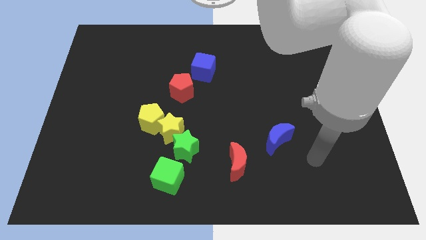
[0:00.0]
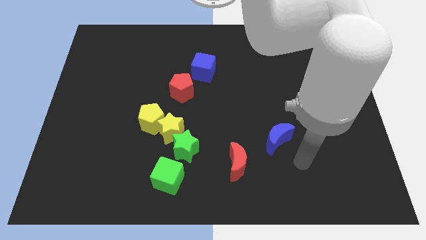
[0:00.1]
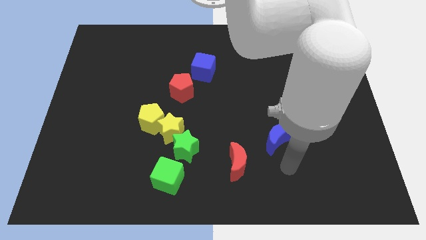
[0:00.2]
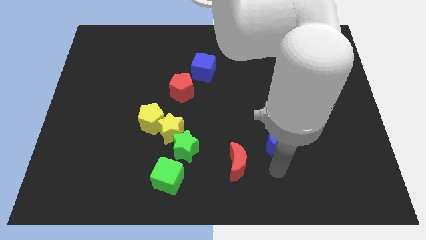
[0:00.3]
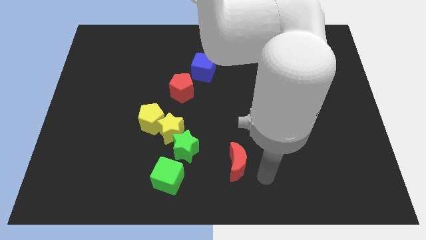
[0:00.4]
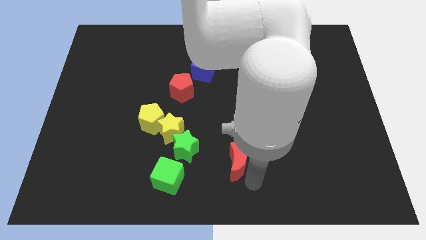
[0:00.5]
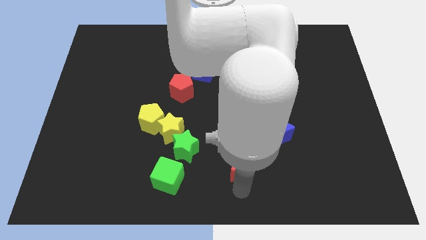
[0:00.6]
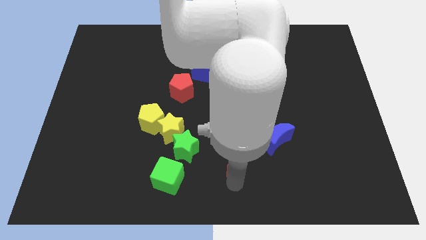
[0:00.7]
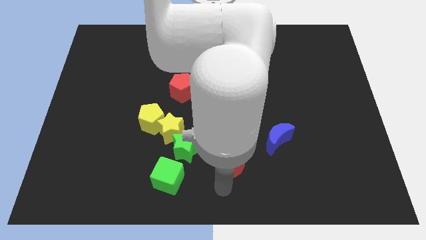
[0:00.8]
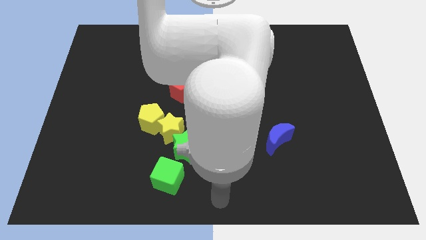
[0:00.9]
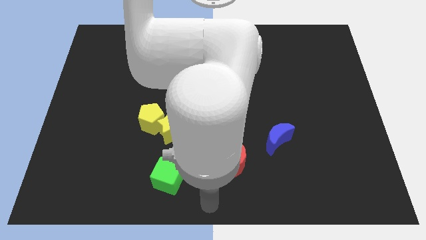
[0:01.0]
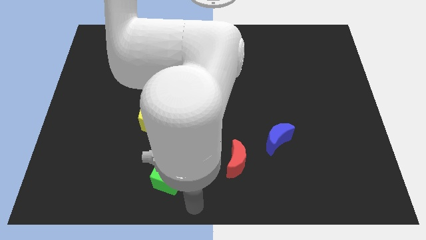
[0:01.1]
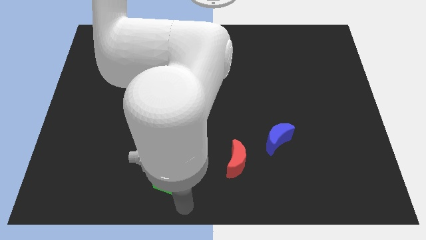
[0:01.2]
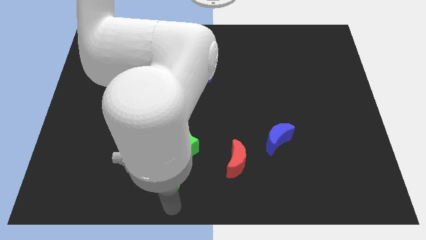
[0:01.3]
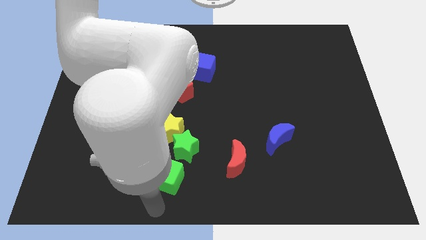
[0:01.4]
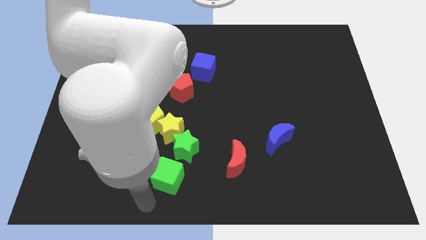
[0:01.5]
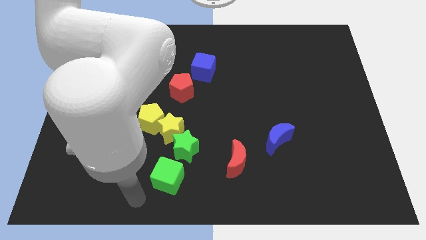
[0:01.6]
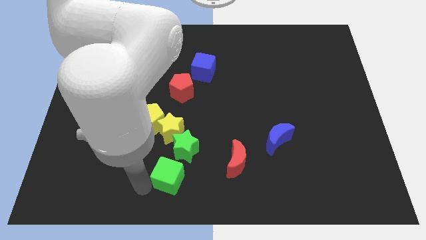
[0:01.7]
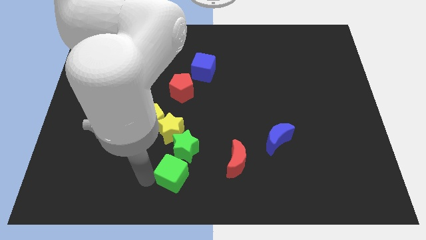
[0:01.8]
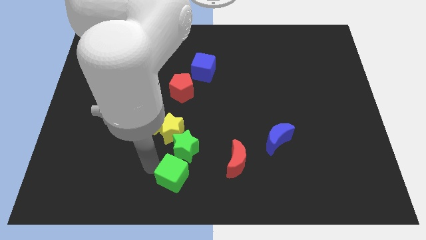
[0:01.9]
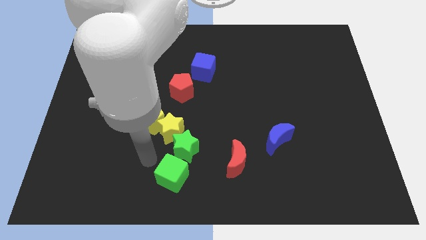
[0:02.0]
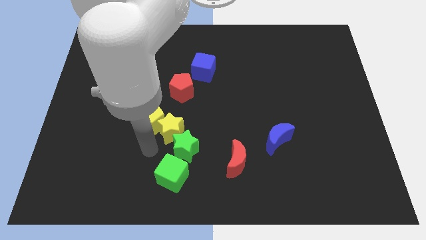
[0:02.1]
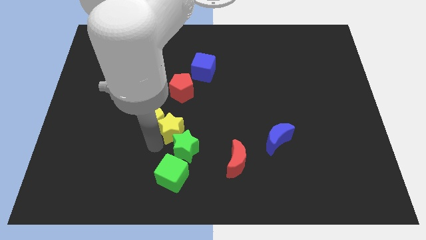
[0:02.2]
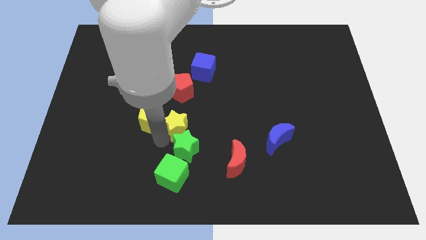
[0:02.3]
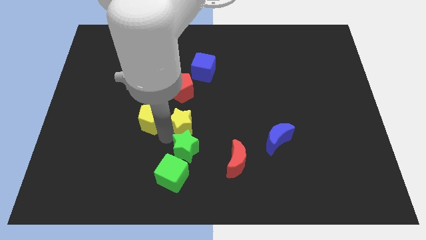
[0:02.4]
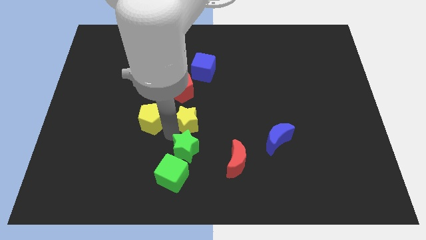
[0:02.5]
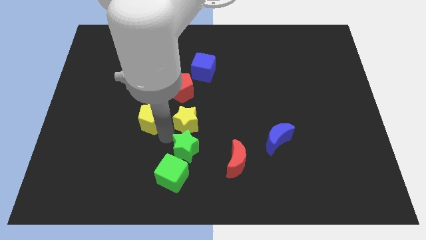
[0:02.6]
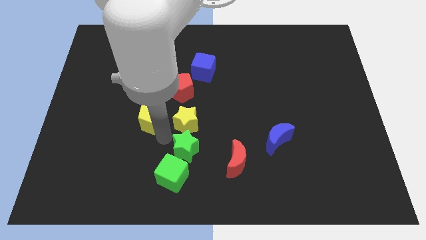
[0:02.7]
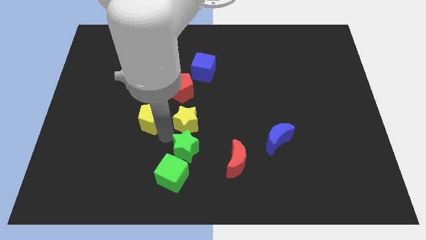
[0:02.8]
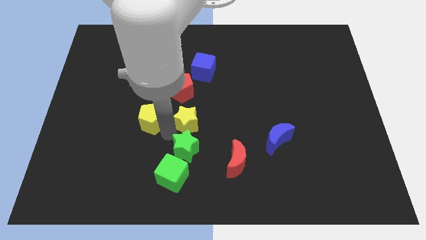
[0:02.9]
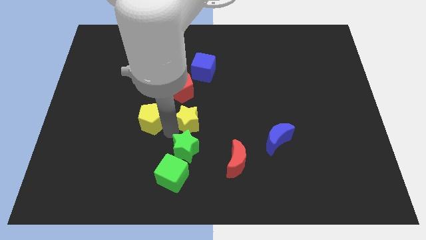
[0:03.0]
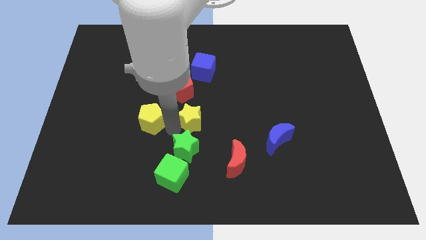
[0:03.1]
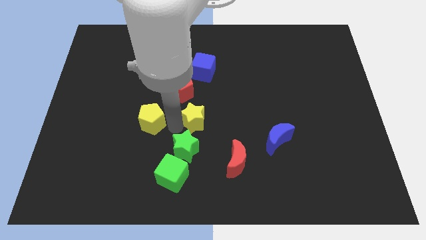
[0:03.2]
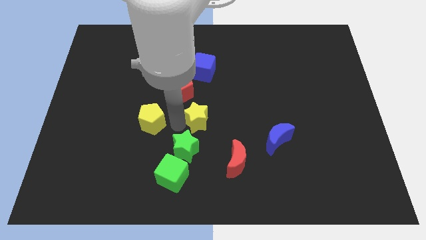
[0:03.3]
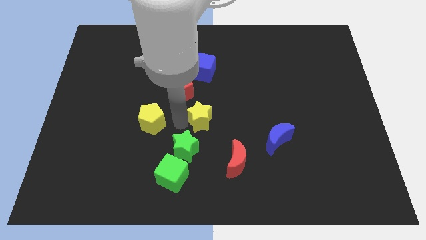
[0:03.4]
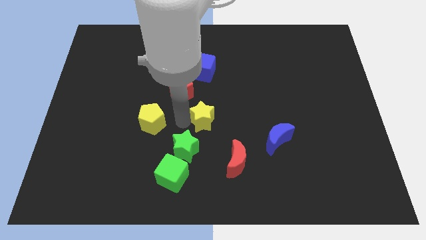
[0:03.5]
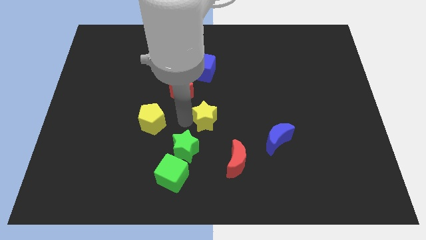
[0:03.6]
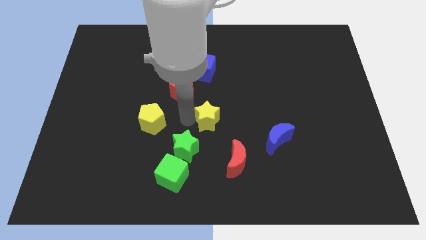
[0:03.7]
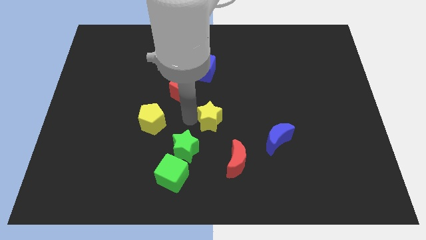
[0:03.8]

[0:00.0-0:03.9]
pull the yellow star apart from the green star and yellow pentagon

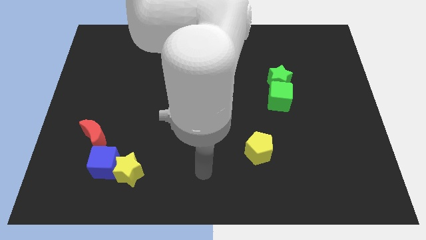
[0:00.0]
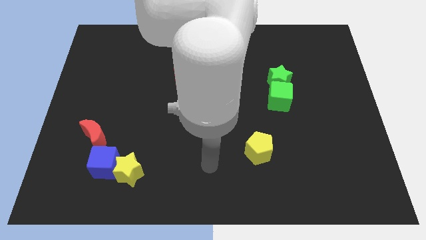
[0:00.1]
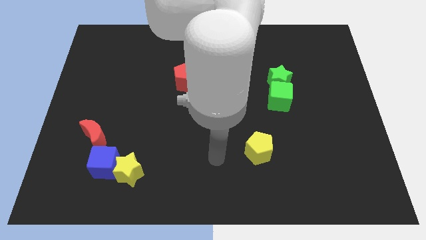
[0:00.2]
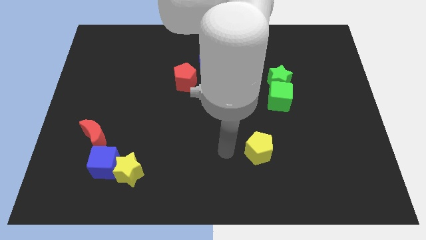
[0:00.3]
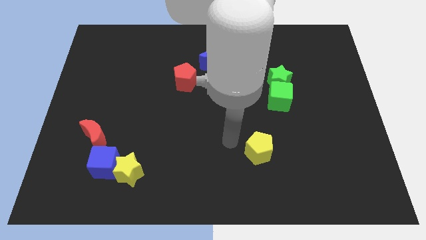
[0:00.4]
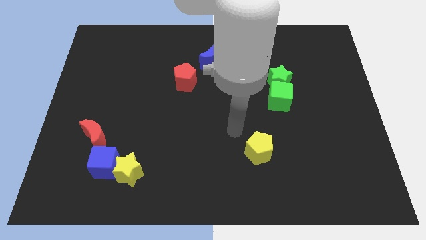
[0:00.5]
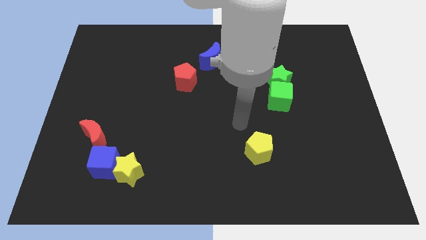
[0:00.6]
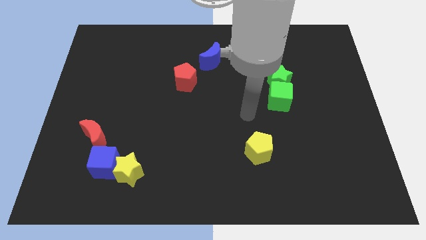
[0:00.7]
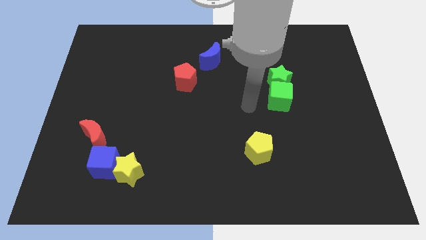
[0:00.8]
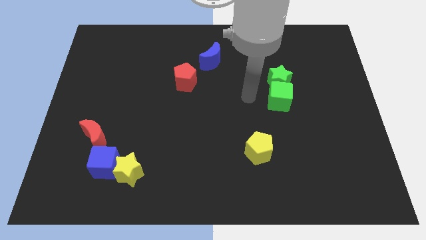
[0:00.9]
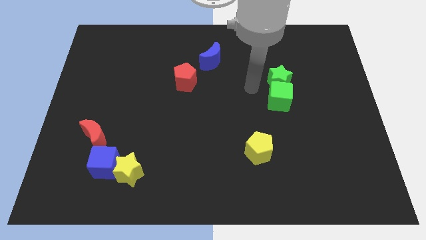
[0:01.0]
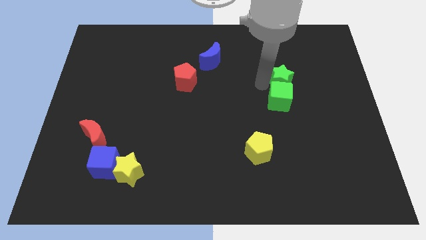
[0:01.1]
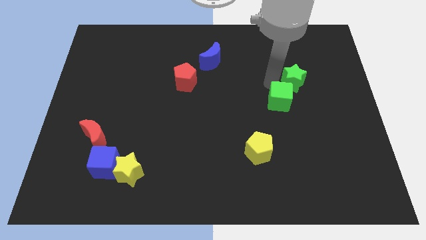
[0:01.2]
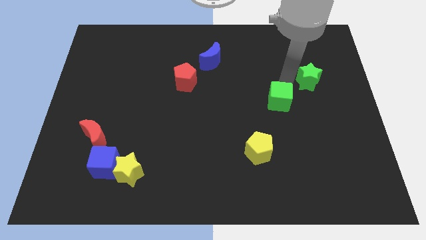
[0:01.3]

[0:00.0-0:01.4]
move the green cube away from the green star

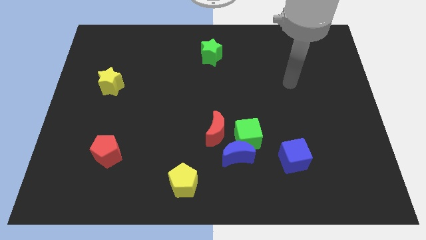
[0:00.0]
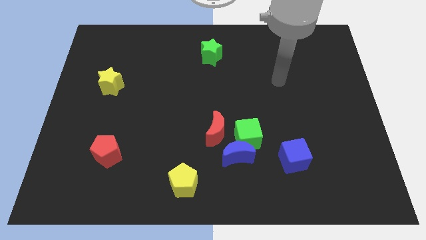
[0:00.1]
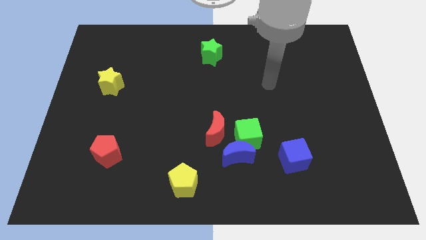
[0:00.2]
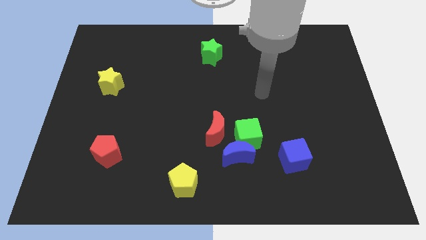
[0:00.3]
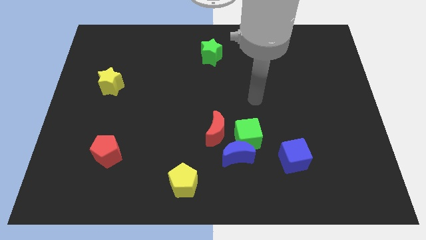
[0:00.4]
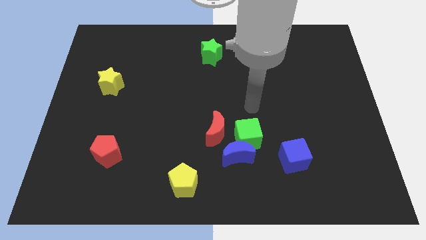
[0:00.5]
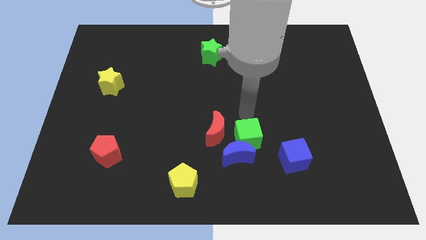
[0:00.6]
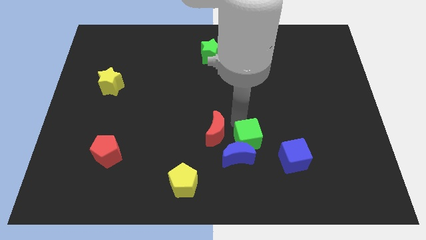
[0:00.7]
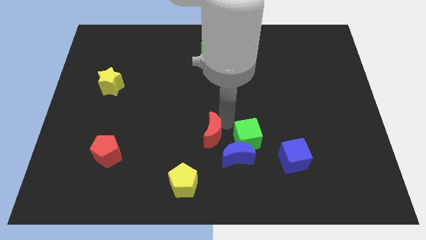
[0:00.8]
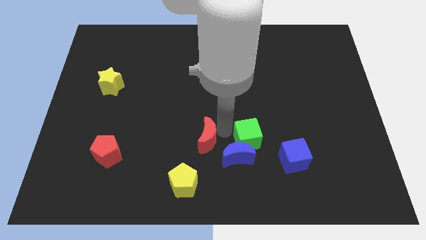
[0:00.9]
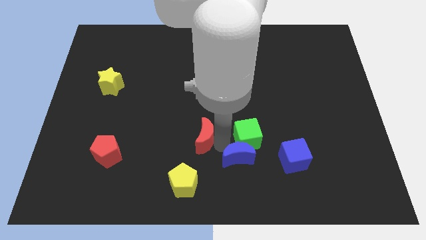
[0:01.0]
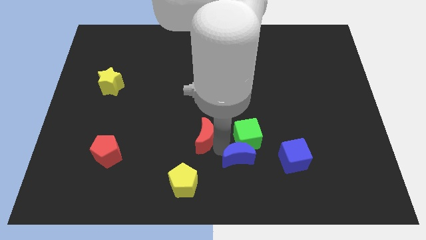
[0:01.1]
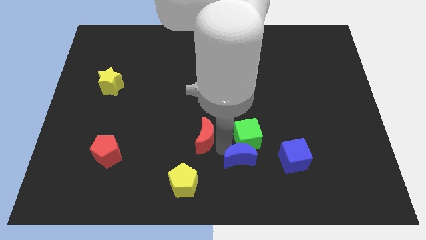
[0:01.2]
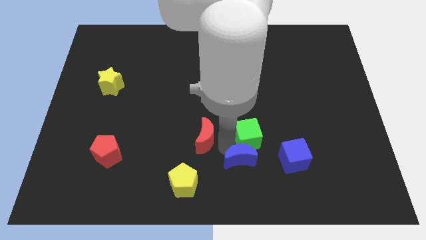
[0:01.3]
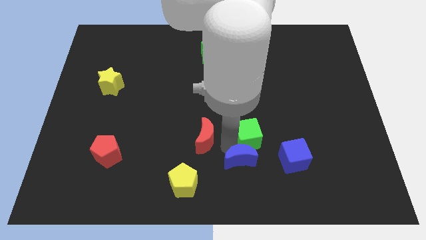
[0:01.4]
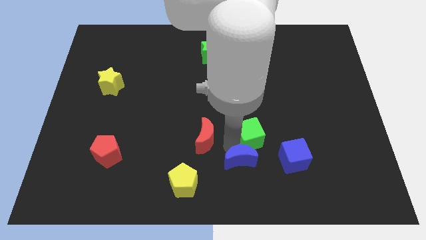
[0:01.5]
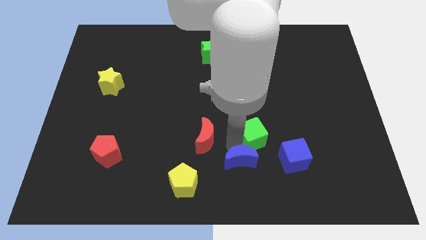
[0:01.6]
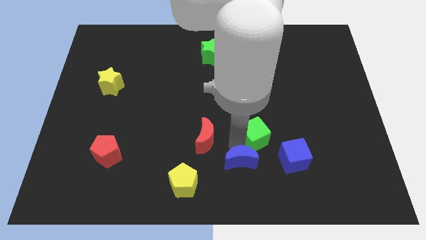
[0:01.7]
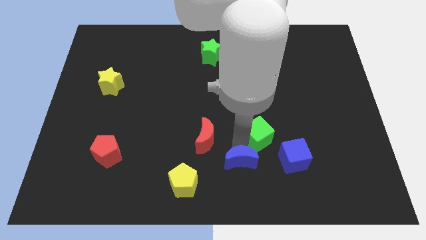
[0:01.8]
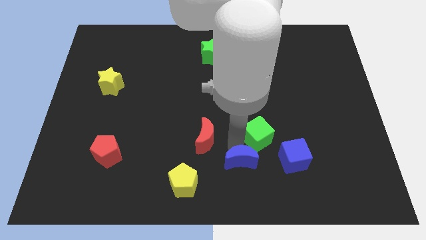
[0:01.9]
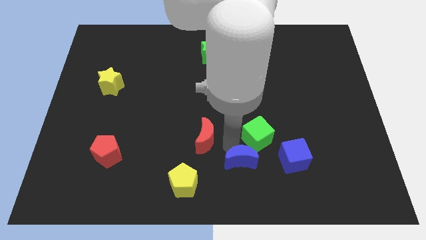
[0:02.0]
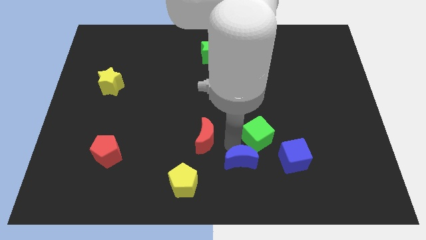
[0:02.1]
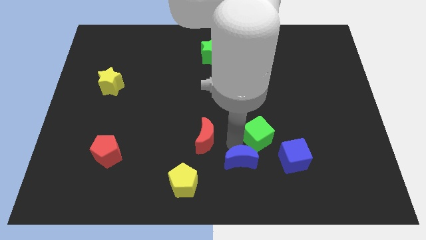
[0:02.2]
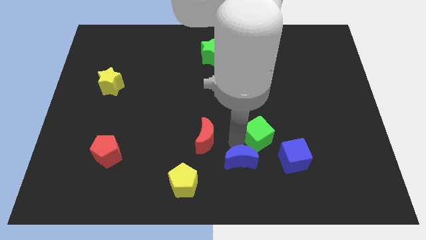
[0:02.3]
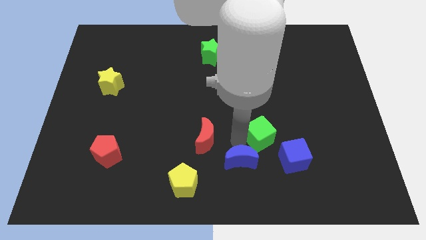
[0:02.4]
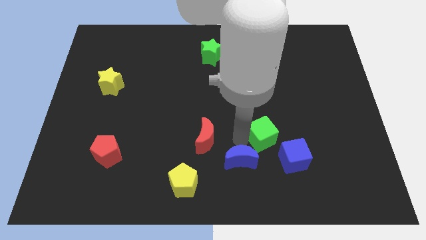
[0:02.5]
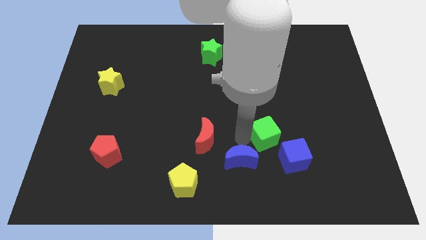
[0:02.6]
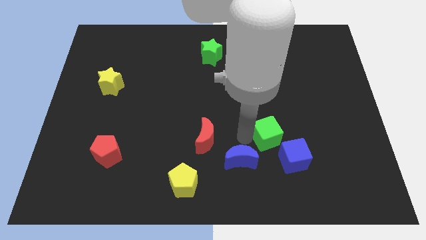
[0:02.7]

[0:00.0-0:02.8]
pull the green cube apart from the blue moon and red moon

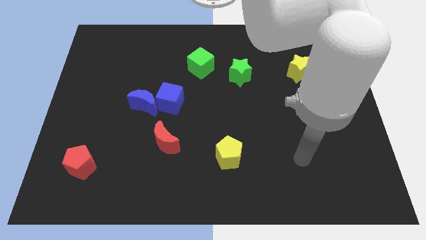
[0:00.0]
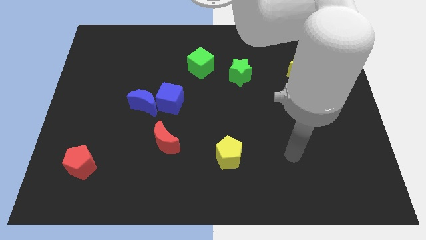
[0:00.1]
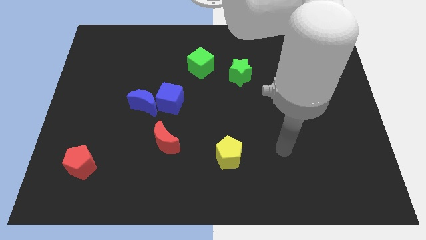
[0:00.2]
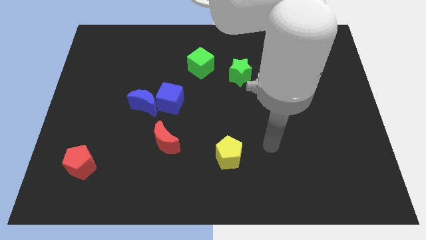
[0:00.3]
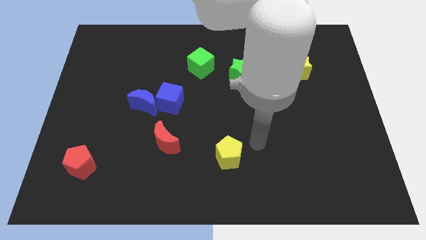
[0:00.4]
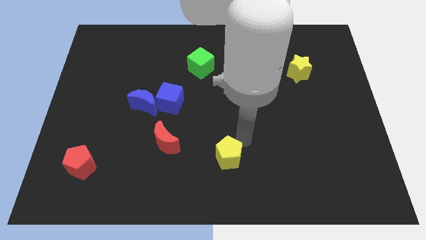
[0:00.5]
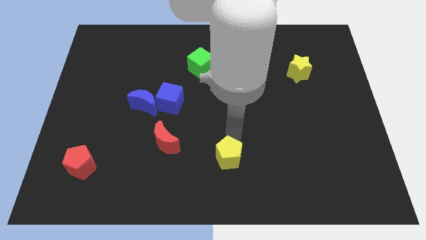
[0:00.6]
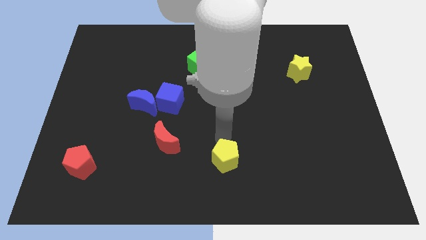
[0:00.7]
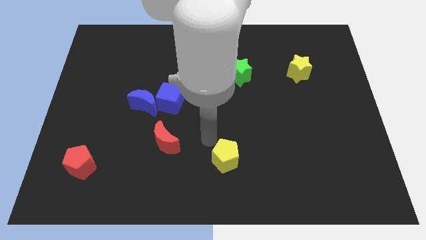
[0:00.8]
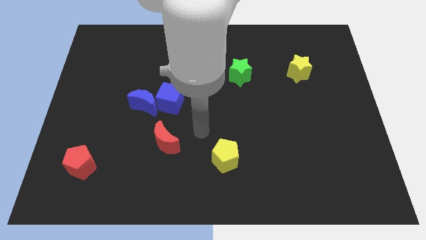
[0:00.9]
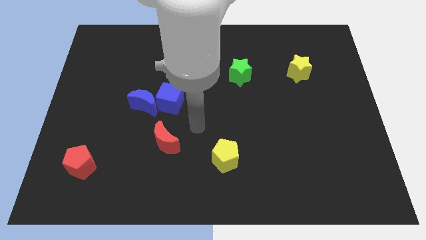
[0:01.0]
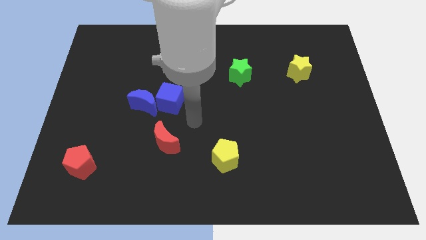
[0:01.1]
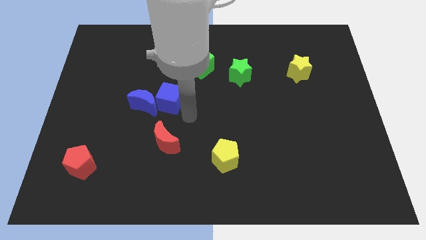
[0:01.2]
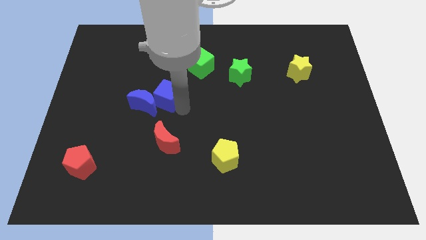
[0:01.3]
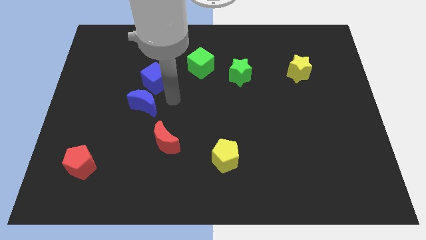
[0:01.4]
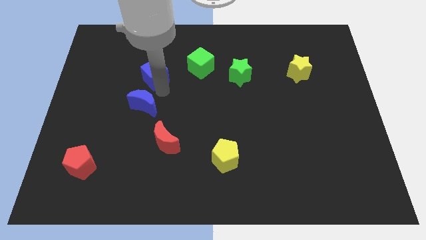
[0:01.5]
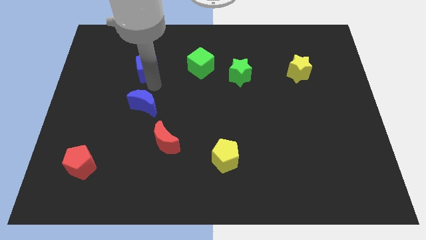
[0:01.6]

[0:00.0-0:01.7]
move the blue moon away from the blue cube
